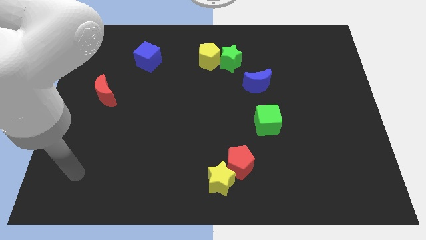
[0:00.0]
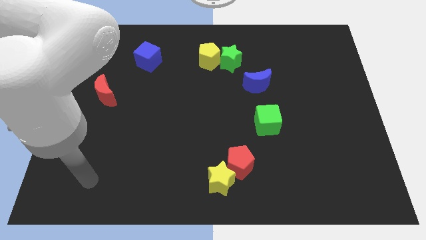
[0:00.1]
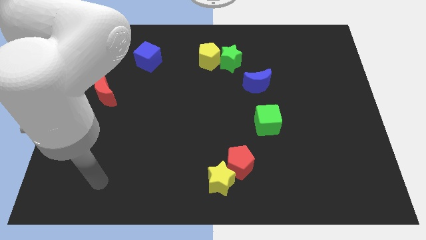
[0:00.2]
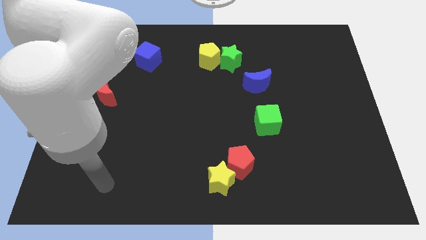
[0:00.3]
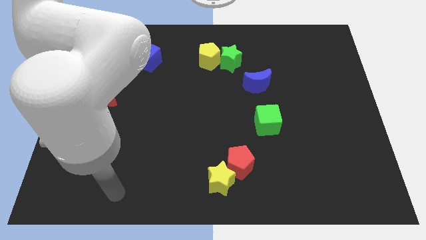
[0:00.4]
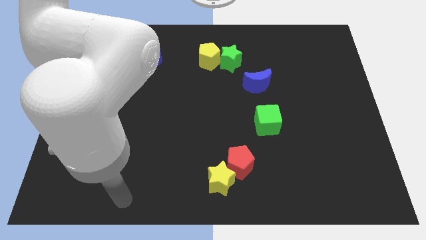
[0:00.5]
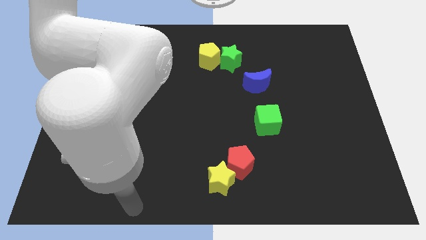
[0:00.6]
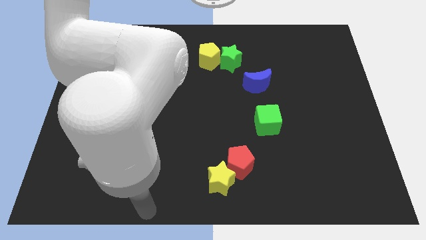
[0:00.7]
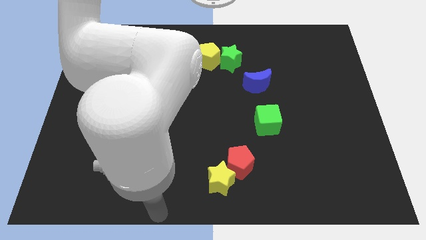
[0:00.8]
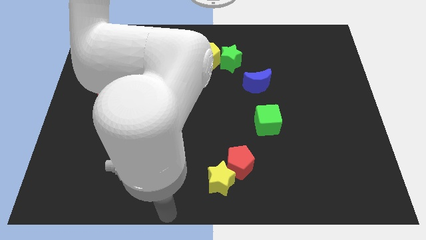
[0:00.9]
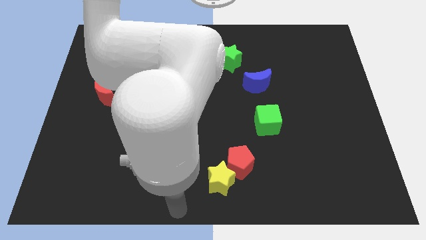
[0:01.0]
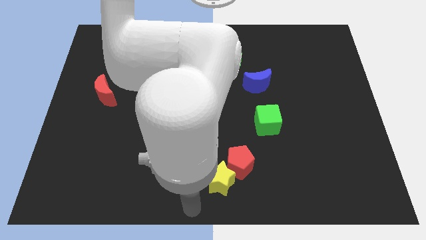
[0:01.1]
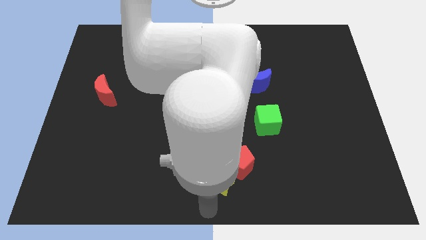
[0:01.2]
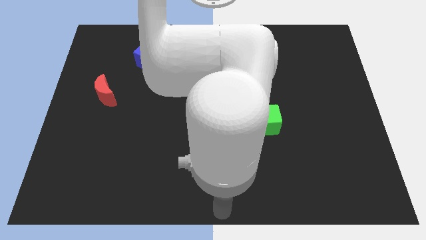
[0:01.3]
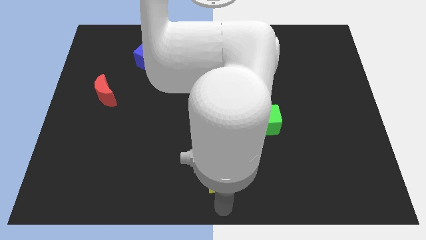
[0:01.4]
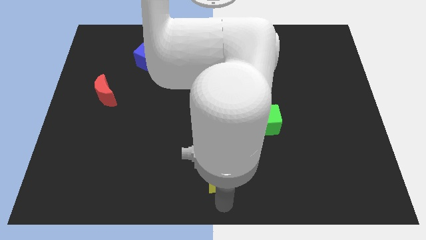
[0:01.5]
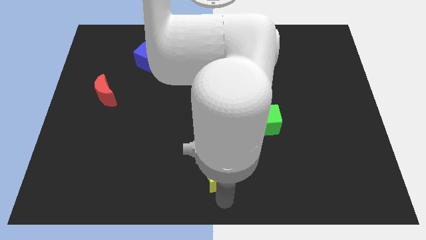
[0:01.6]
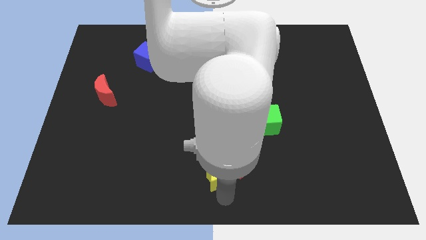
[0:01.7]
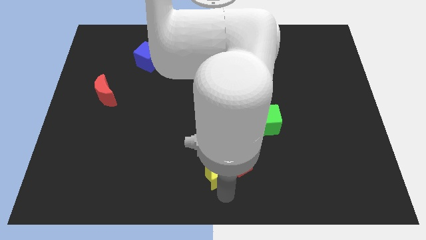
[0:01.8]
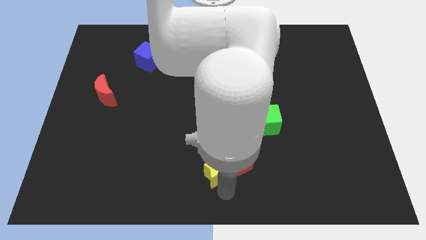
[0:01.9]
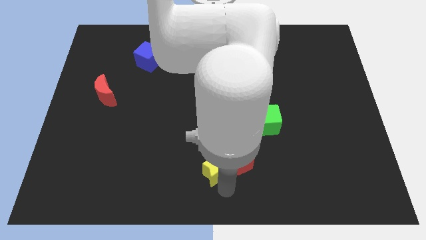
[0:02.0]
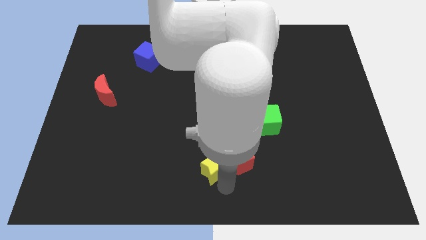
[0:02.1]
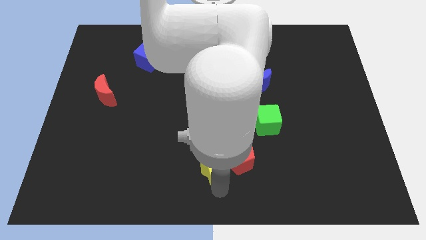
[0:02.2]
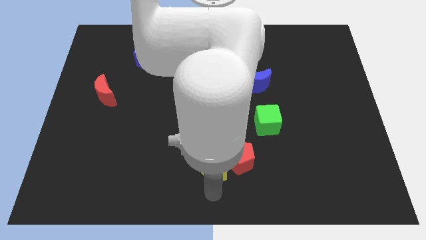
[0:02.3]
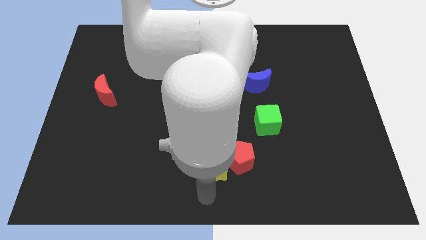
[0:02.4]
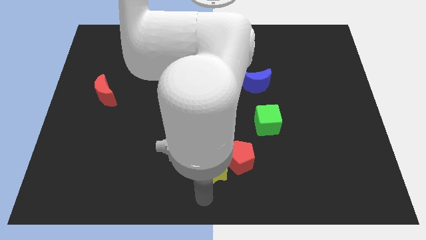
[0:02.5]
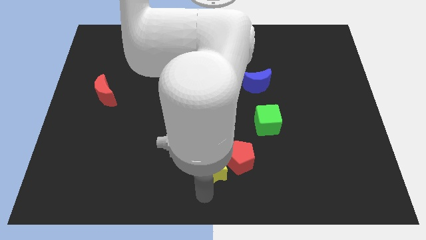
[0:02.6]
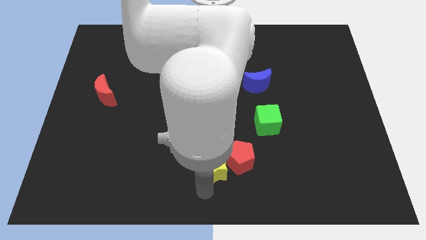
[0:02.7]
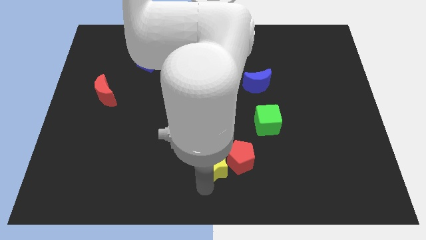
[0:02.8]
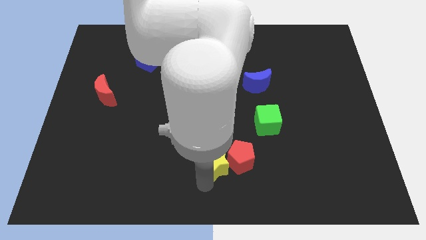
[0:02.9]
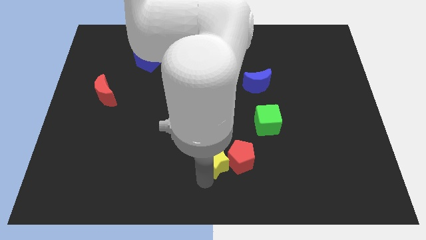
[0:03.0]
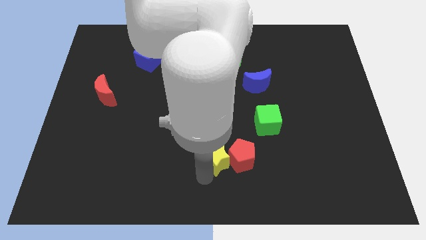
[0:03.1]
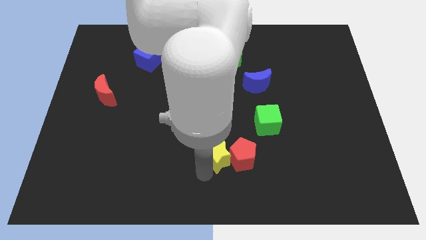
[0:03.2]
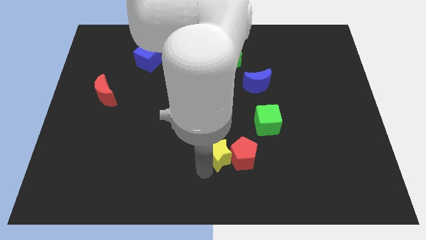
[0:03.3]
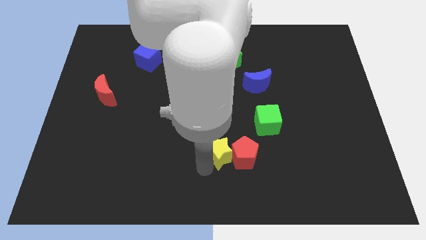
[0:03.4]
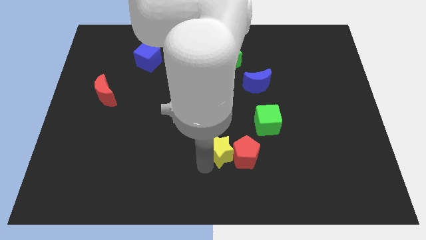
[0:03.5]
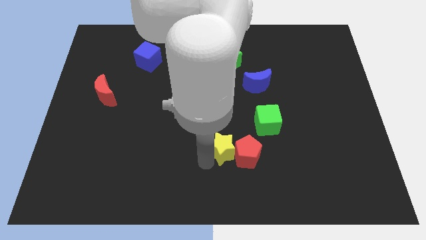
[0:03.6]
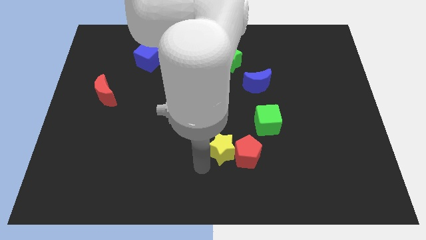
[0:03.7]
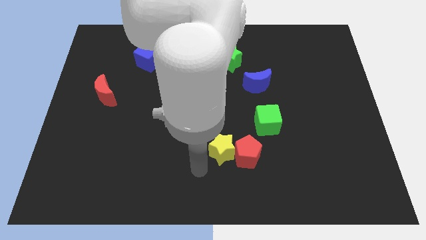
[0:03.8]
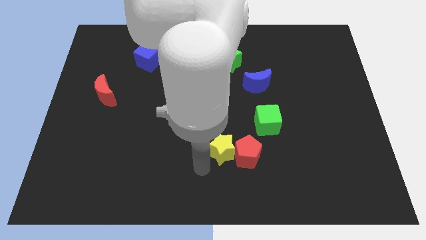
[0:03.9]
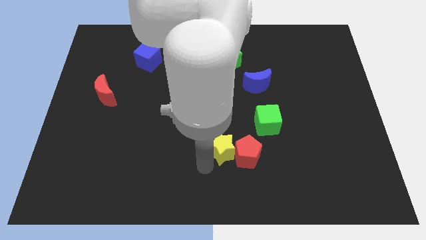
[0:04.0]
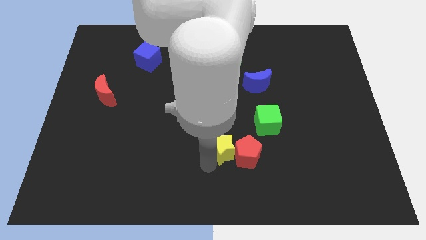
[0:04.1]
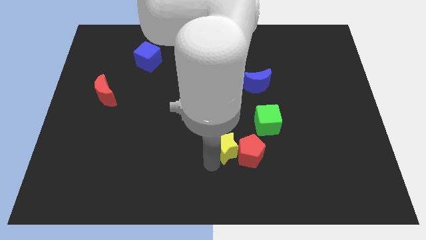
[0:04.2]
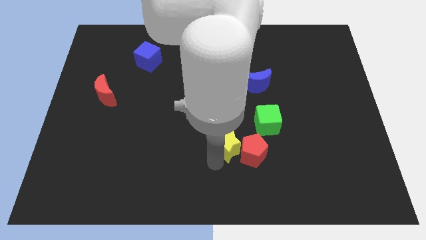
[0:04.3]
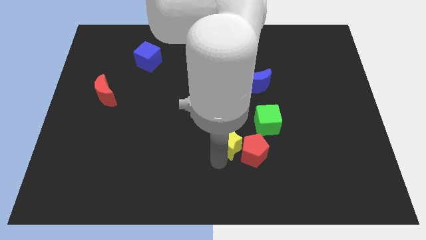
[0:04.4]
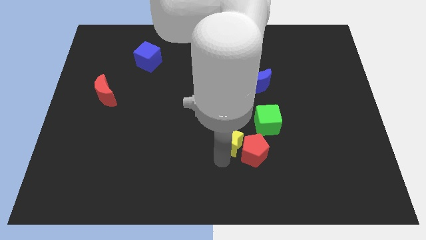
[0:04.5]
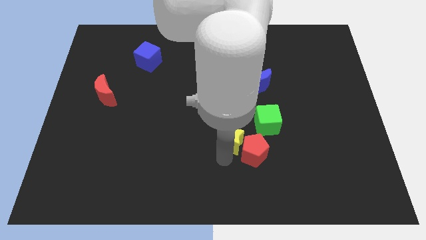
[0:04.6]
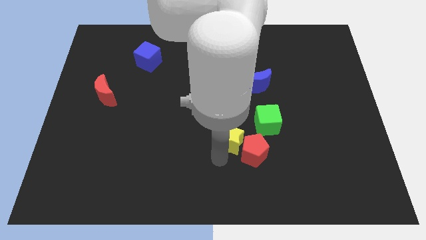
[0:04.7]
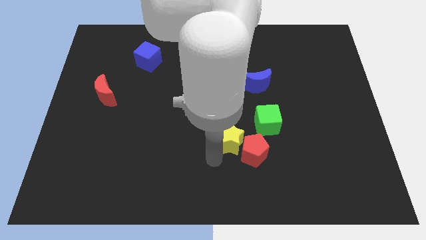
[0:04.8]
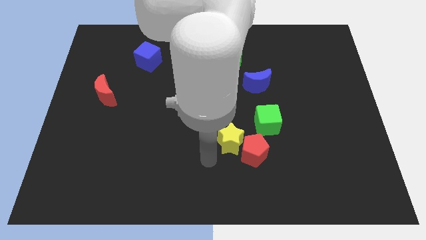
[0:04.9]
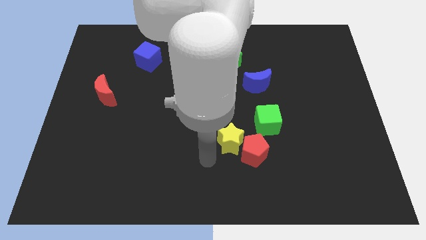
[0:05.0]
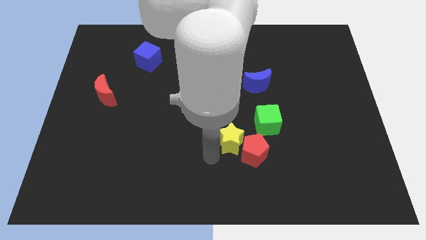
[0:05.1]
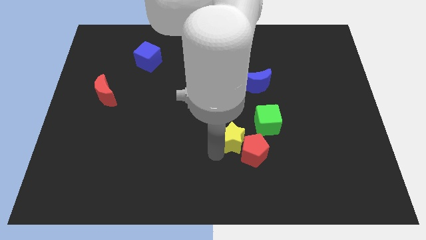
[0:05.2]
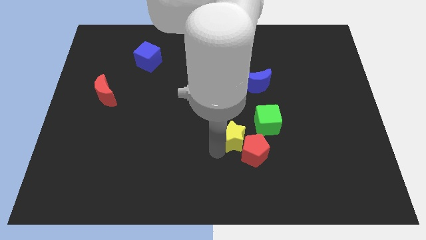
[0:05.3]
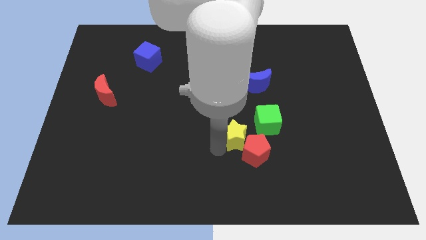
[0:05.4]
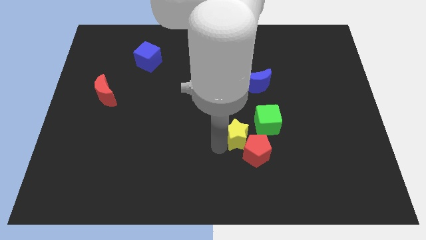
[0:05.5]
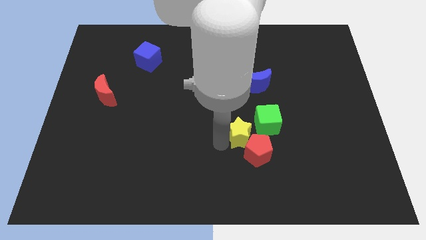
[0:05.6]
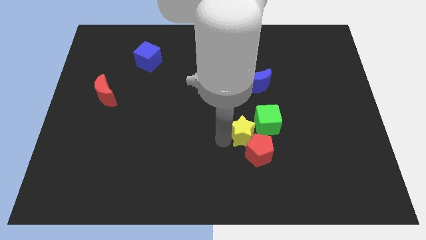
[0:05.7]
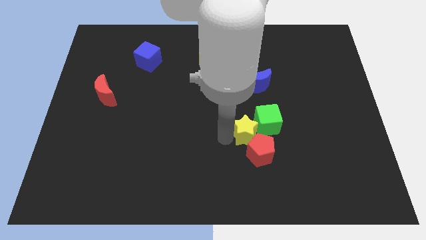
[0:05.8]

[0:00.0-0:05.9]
move the yellow star next to the green cube

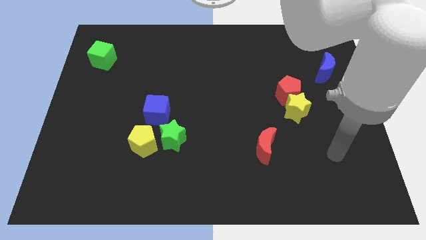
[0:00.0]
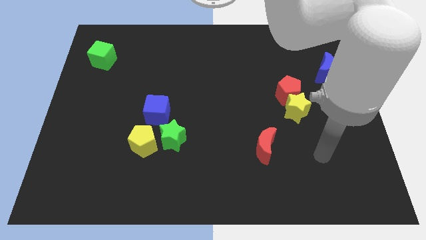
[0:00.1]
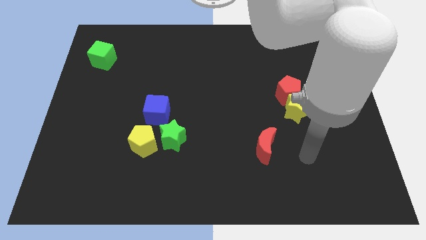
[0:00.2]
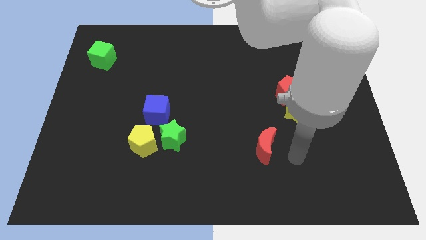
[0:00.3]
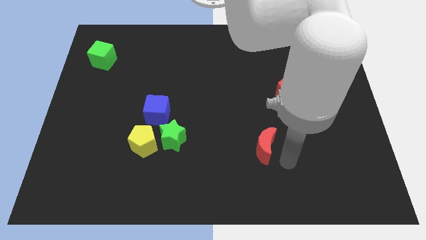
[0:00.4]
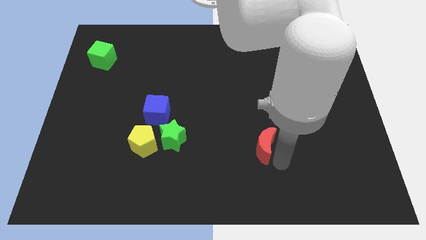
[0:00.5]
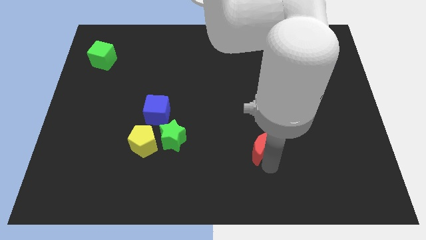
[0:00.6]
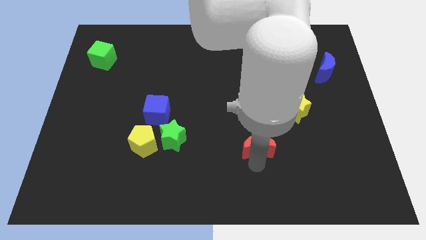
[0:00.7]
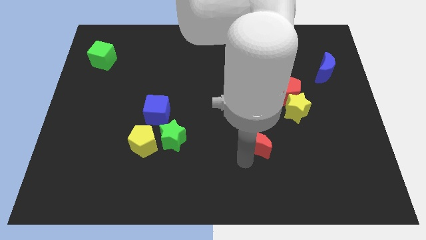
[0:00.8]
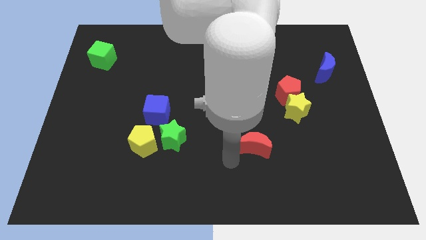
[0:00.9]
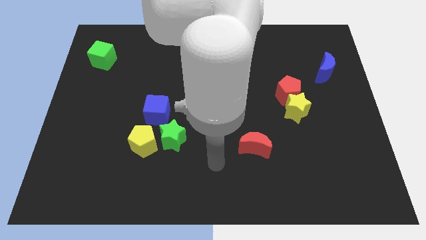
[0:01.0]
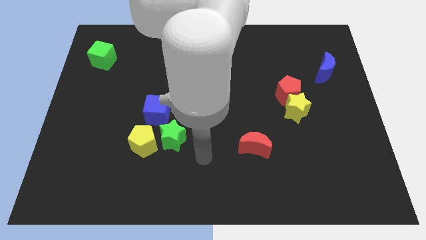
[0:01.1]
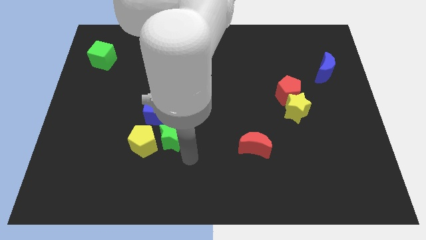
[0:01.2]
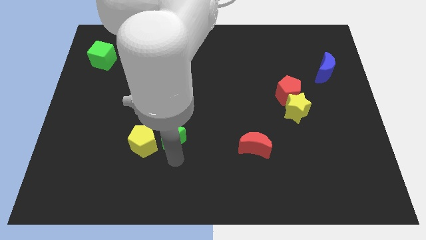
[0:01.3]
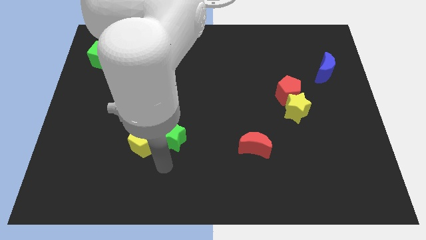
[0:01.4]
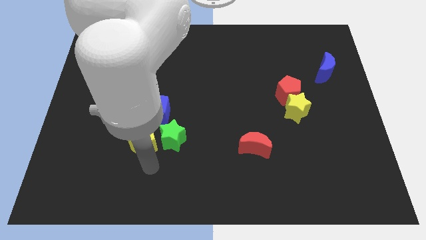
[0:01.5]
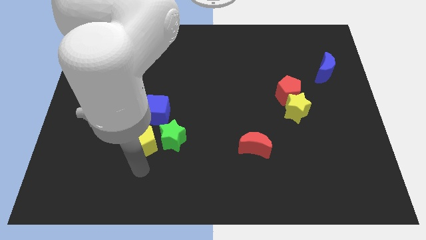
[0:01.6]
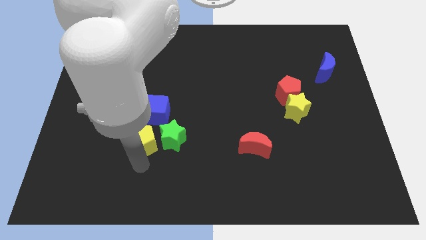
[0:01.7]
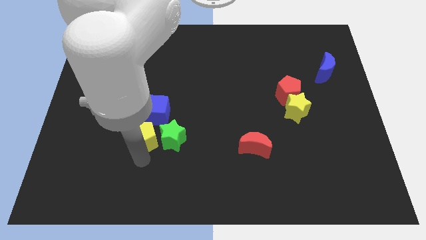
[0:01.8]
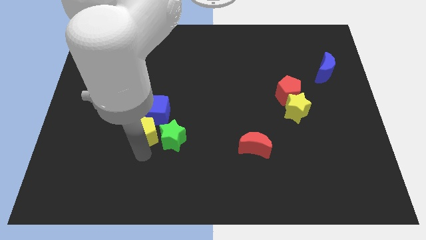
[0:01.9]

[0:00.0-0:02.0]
put the yellow pentagon to the blue cube
